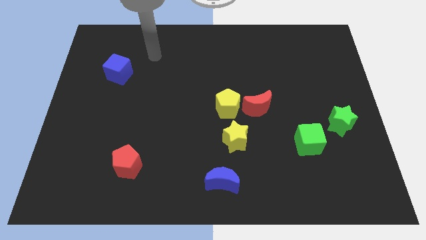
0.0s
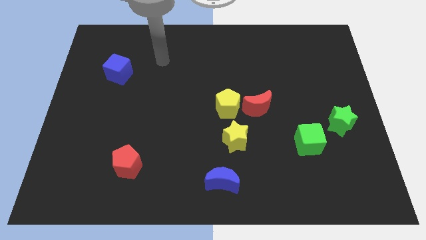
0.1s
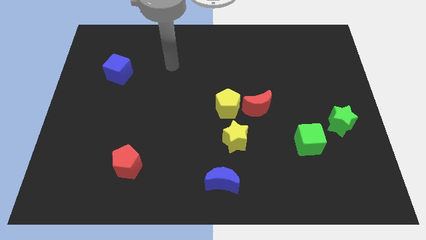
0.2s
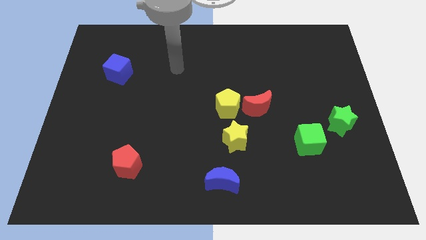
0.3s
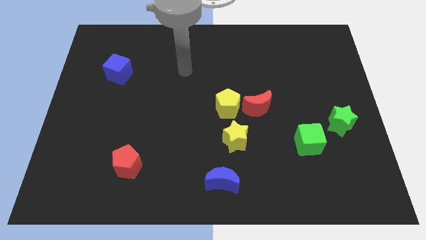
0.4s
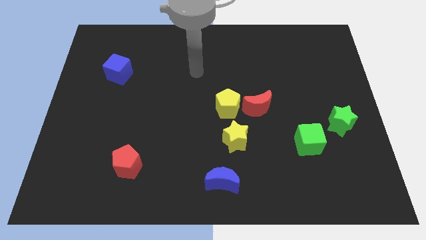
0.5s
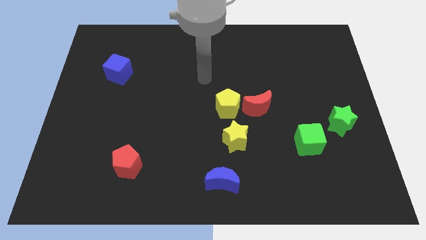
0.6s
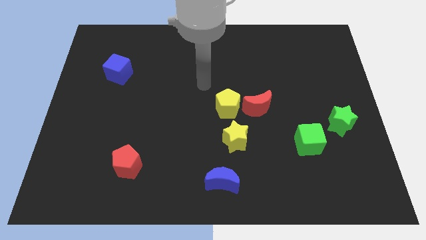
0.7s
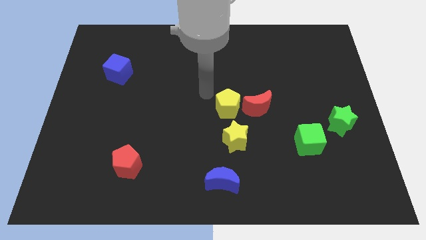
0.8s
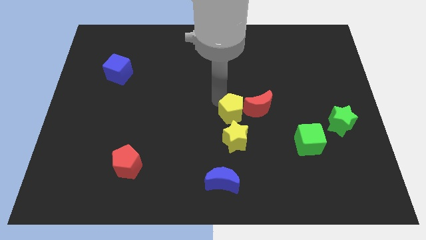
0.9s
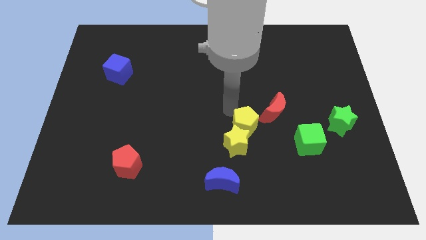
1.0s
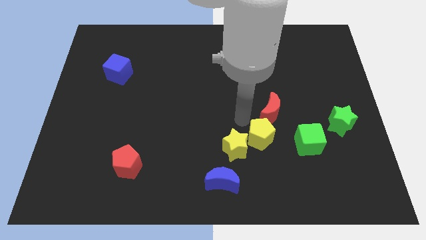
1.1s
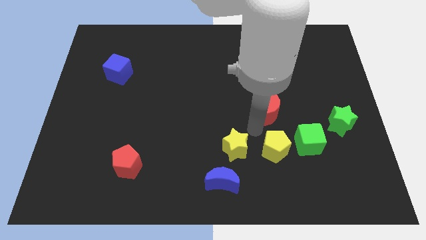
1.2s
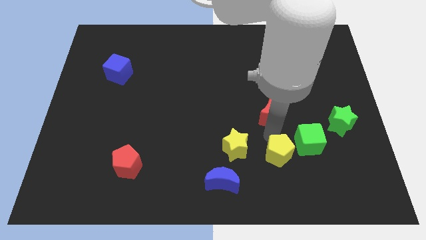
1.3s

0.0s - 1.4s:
separate the red moon from the yellow pentagon

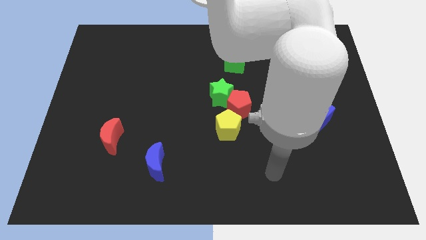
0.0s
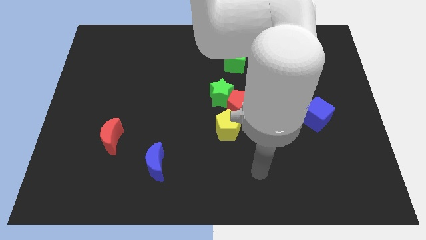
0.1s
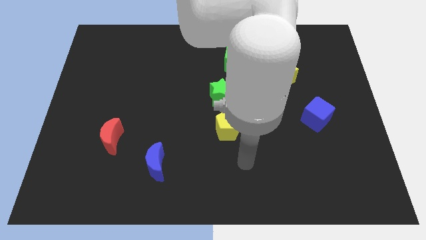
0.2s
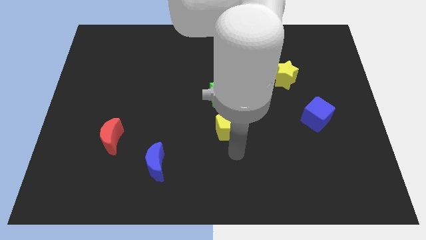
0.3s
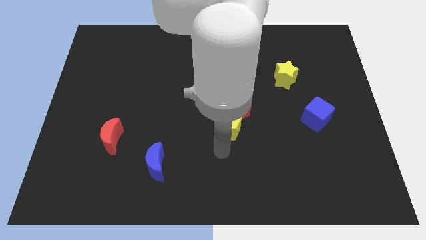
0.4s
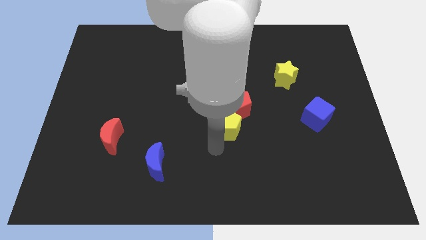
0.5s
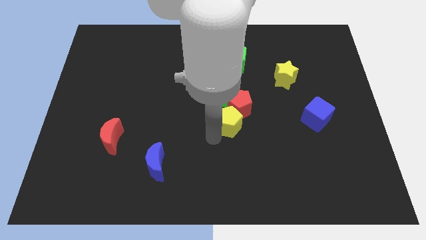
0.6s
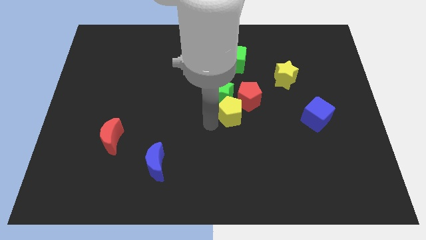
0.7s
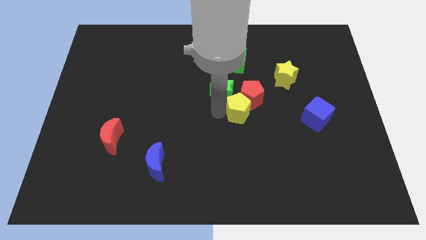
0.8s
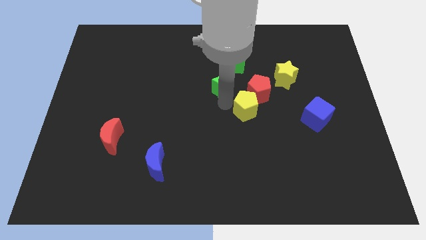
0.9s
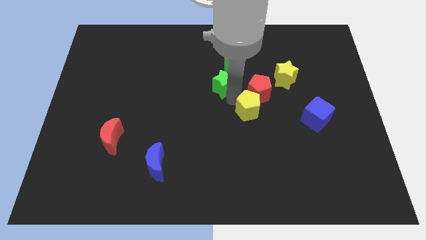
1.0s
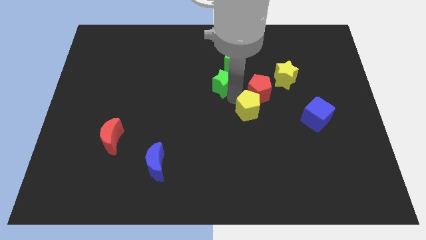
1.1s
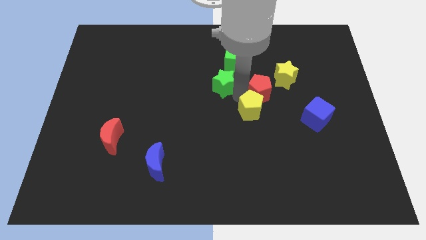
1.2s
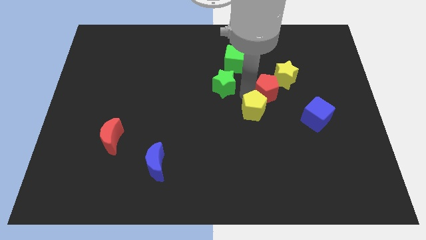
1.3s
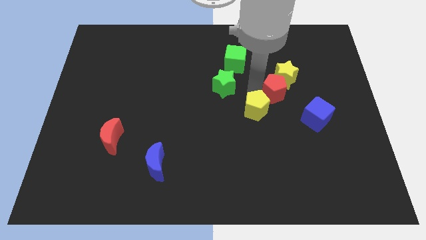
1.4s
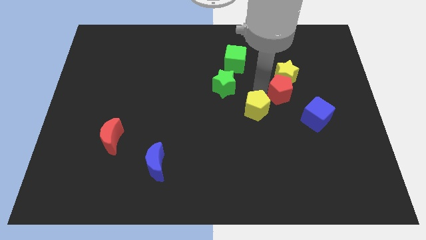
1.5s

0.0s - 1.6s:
separate the red pentagon from the green star and yellow pentagon

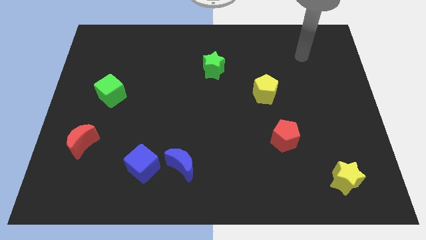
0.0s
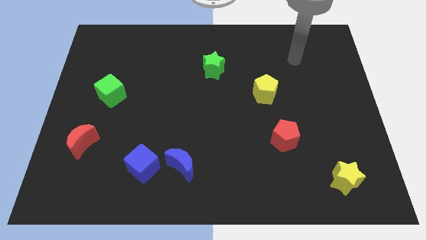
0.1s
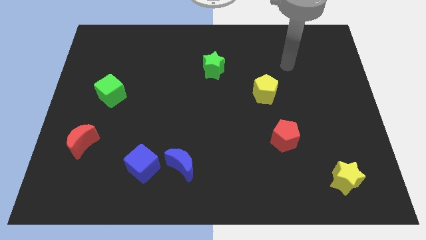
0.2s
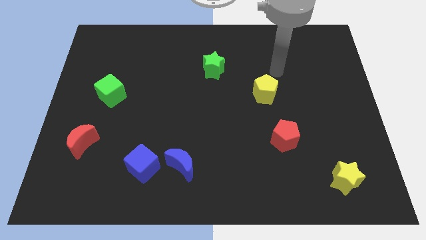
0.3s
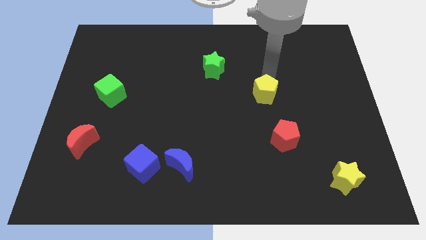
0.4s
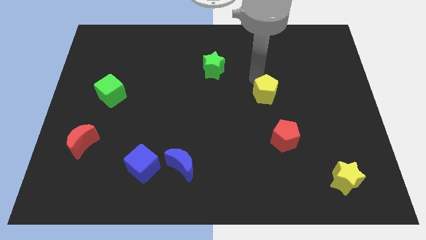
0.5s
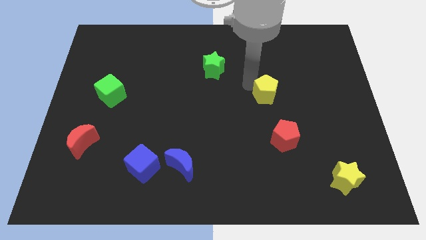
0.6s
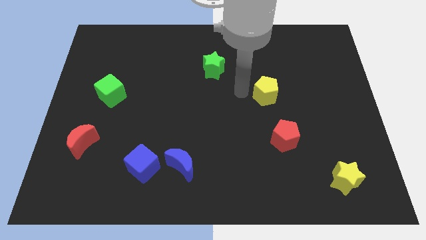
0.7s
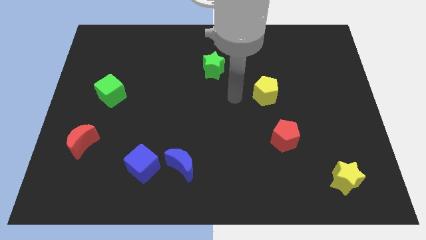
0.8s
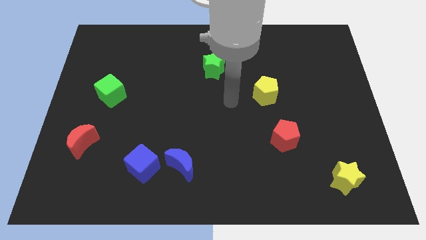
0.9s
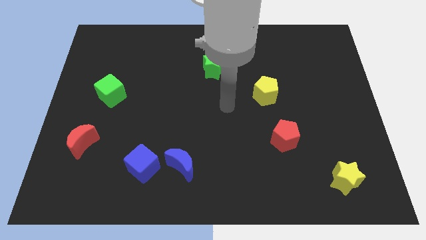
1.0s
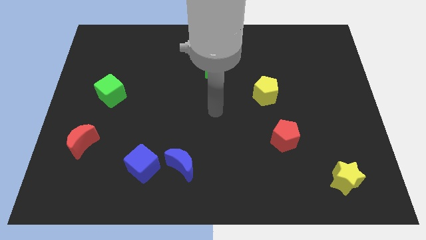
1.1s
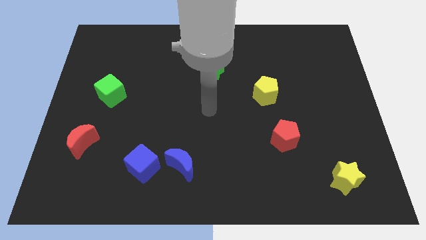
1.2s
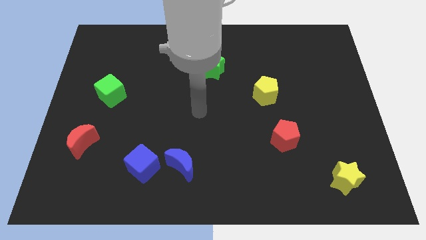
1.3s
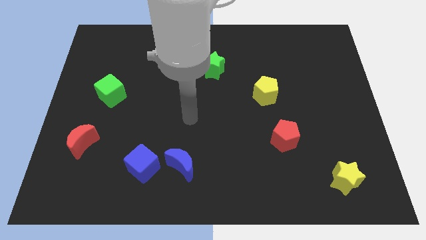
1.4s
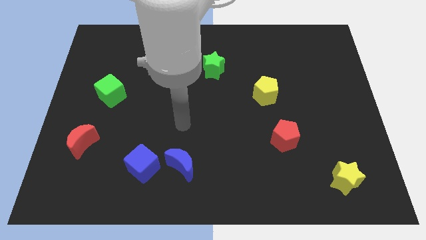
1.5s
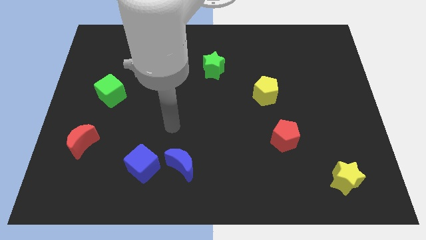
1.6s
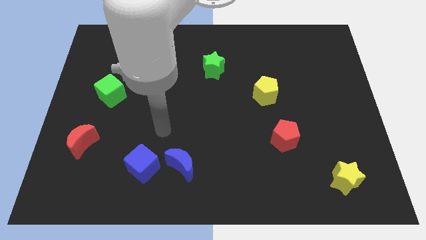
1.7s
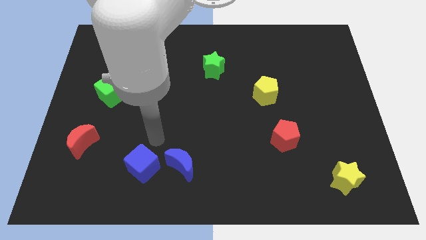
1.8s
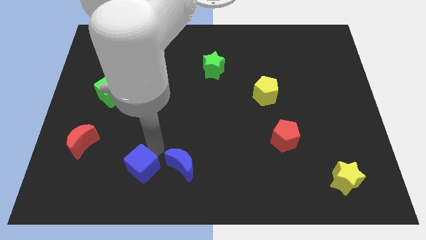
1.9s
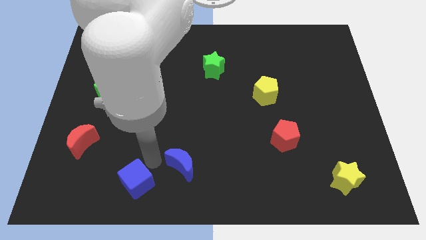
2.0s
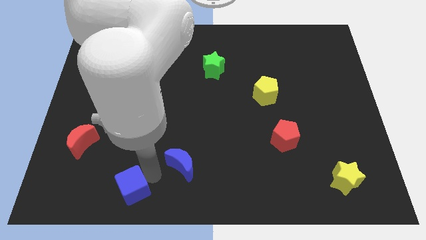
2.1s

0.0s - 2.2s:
separate the blue moon from the blue cube

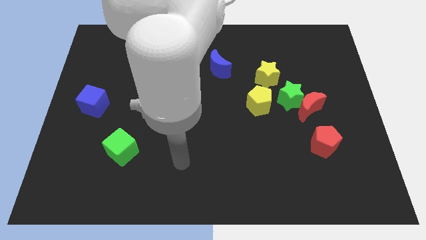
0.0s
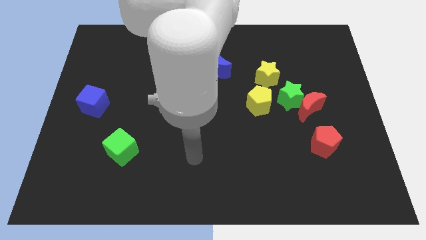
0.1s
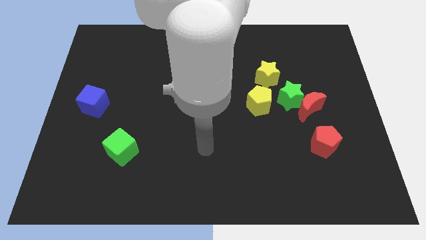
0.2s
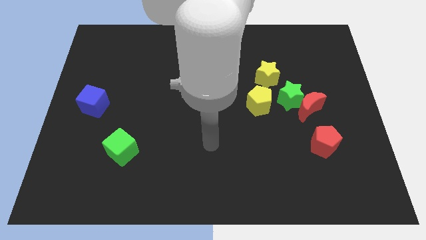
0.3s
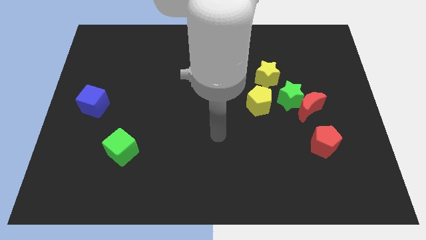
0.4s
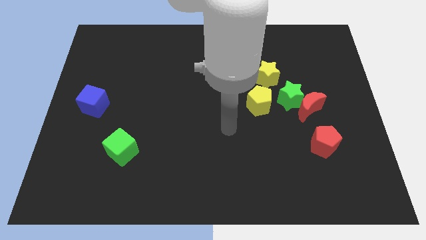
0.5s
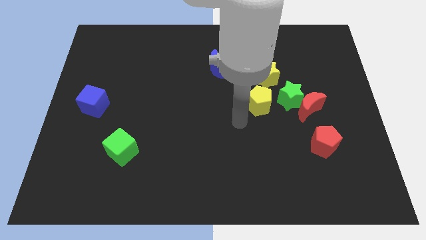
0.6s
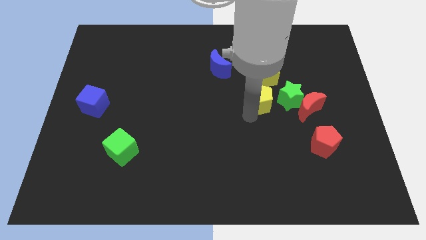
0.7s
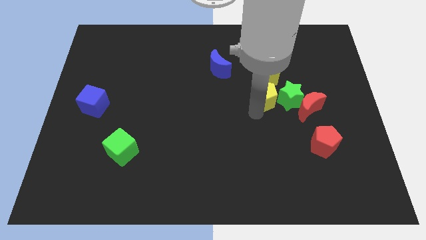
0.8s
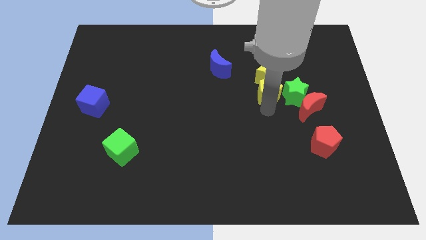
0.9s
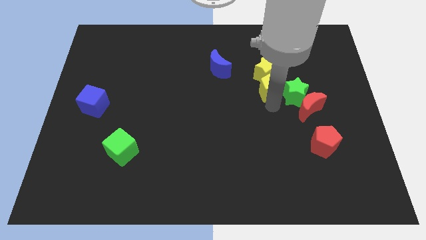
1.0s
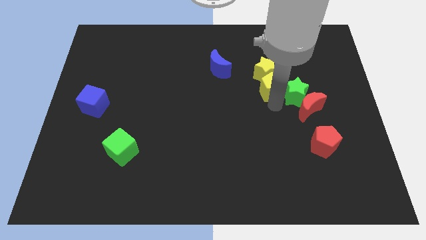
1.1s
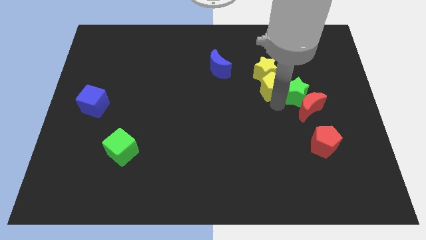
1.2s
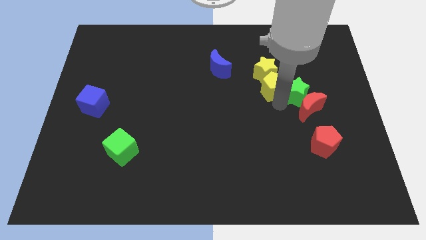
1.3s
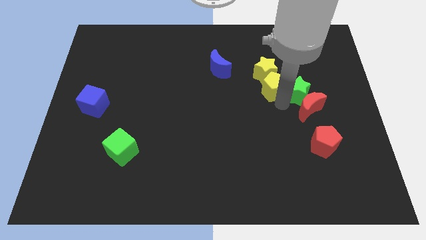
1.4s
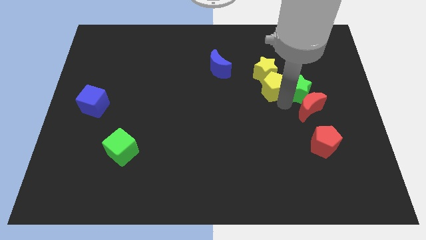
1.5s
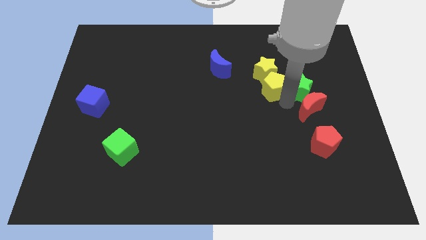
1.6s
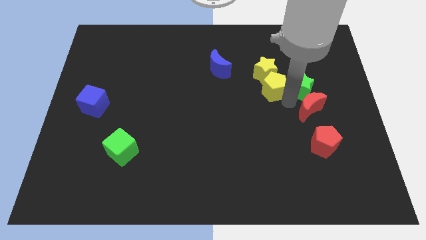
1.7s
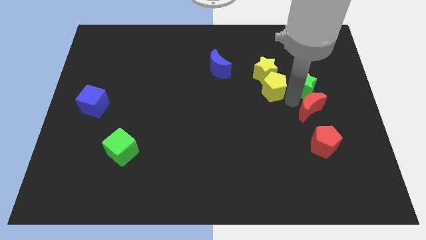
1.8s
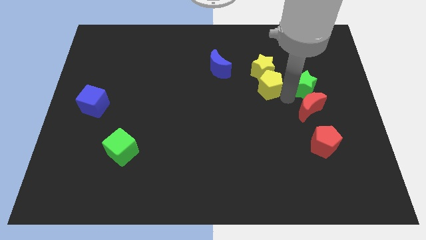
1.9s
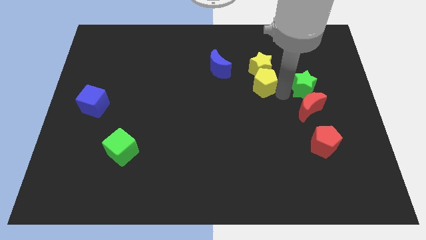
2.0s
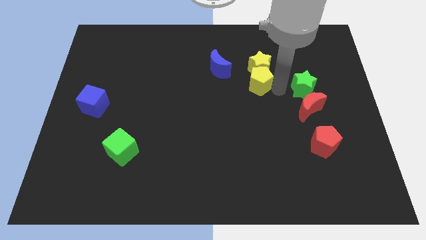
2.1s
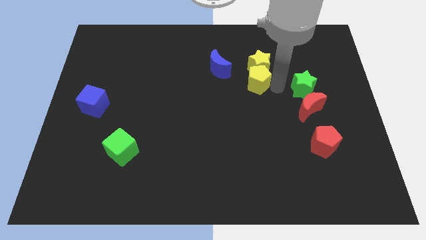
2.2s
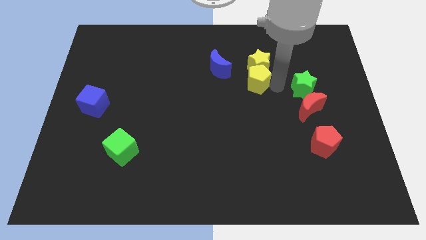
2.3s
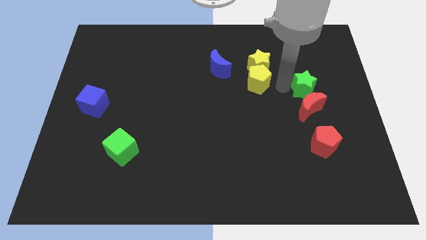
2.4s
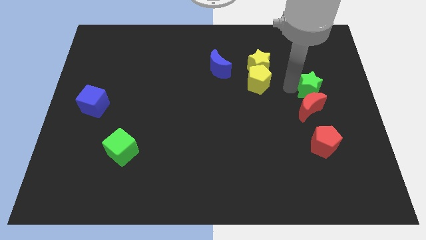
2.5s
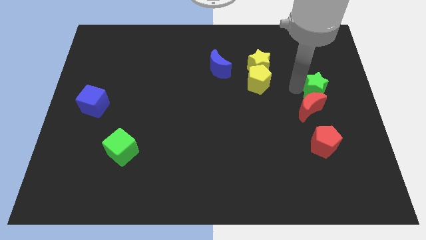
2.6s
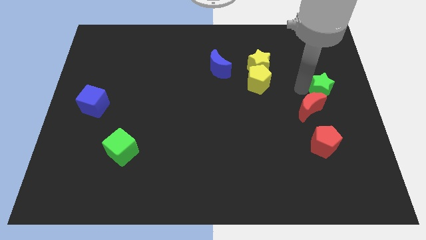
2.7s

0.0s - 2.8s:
separate the green star from the group

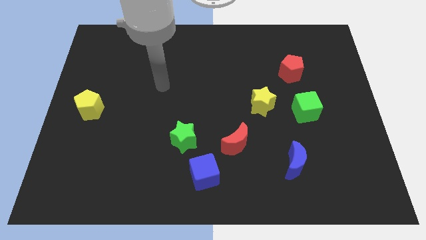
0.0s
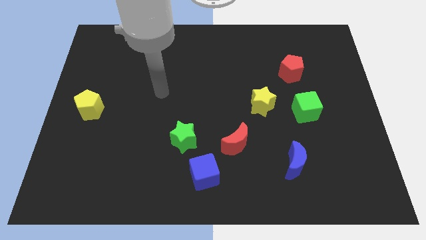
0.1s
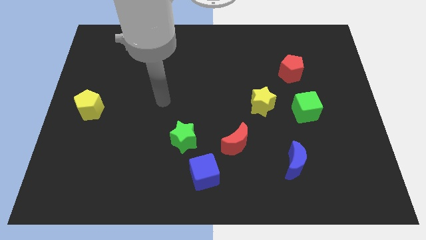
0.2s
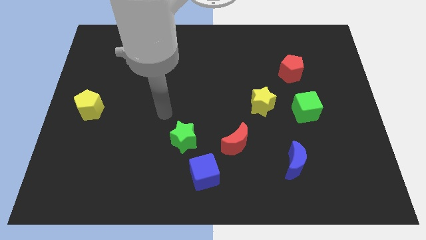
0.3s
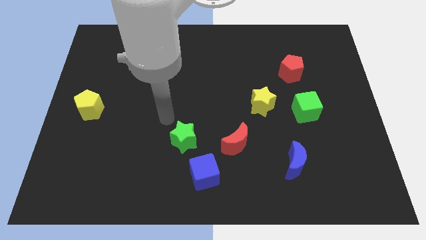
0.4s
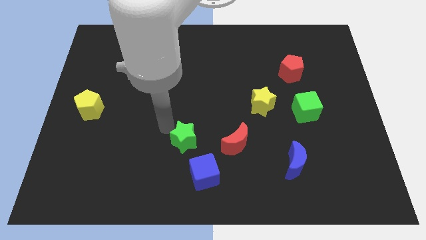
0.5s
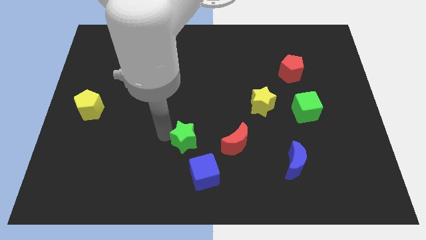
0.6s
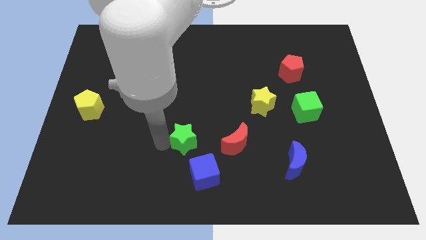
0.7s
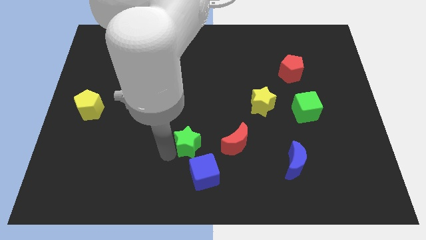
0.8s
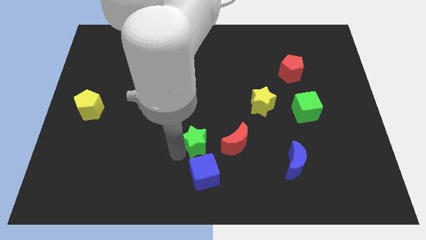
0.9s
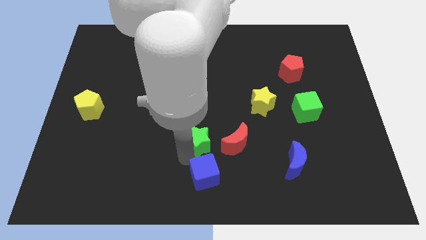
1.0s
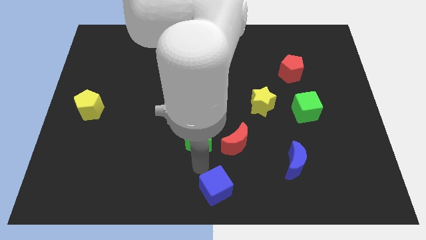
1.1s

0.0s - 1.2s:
pull the green star apart from the blue cube

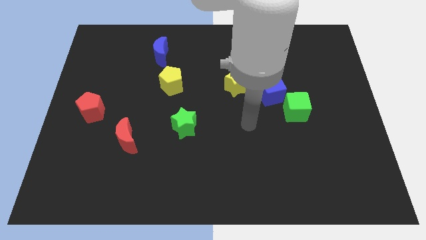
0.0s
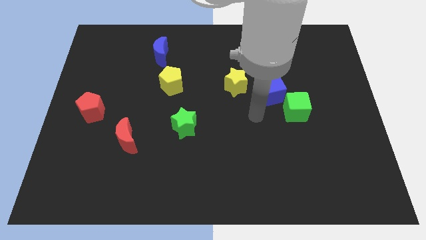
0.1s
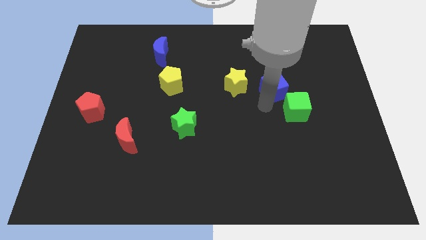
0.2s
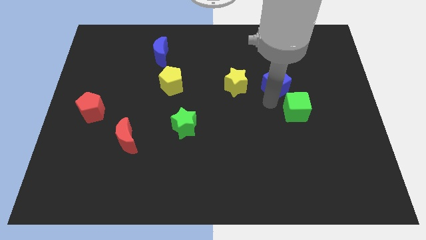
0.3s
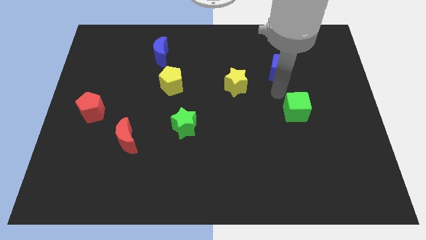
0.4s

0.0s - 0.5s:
pull the green cube apart from the blue cube
